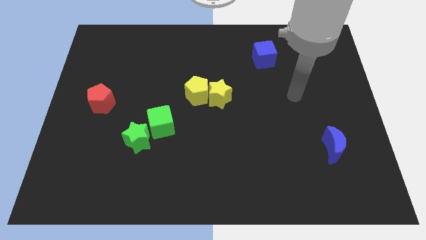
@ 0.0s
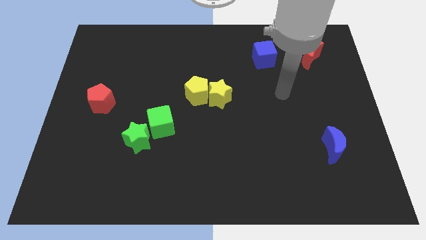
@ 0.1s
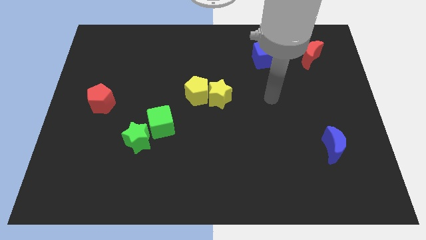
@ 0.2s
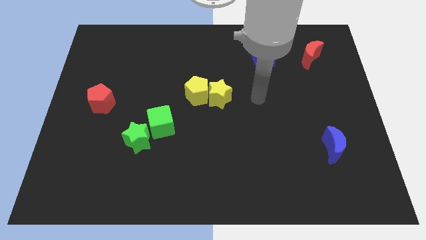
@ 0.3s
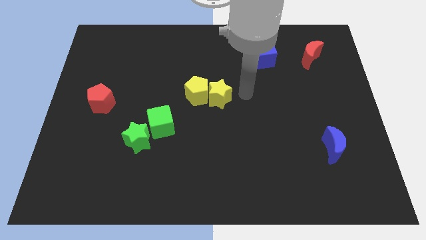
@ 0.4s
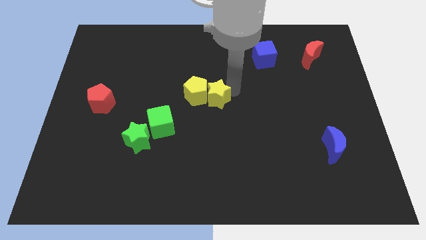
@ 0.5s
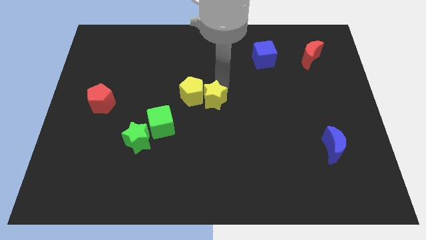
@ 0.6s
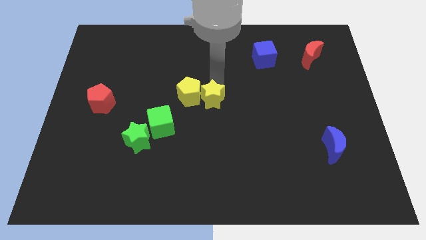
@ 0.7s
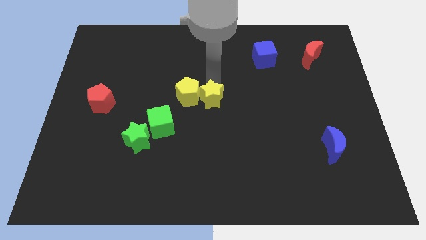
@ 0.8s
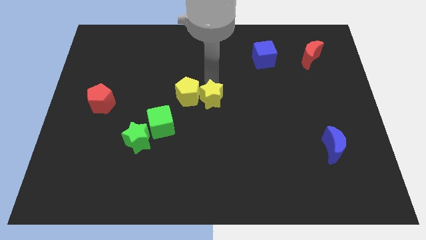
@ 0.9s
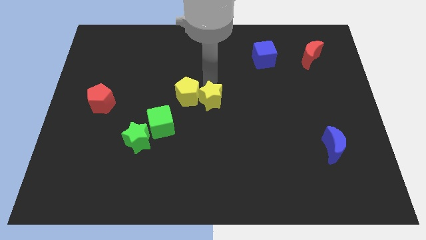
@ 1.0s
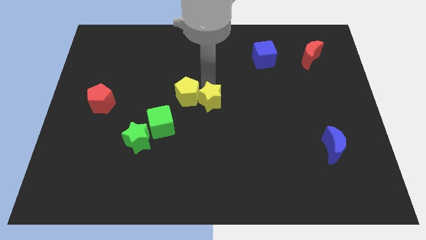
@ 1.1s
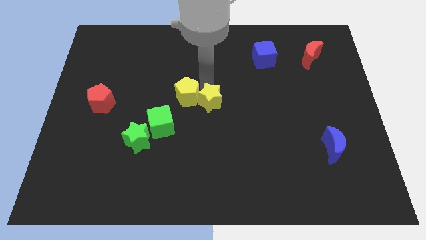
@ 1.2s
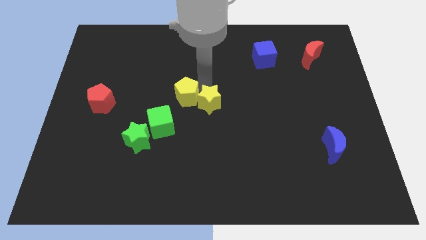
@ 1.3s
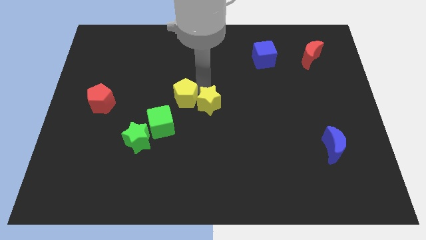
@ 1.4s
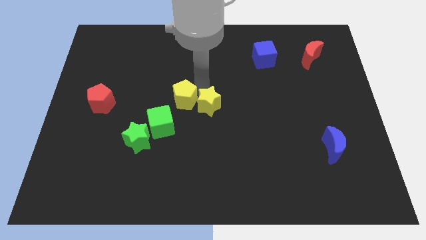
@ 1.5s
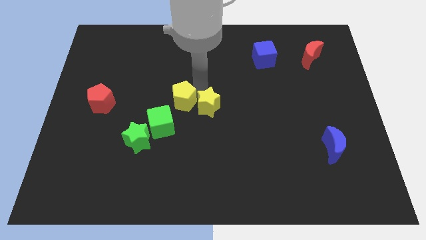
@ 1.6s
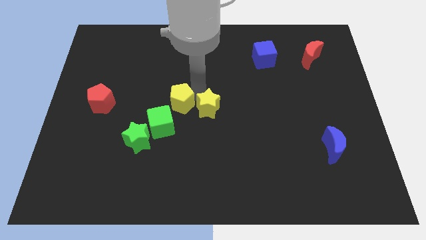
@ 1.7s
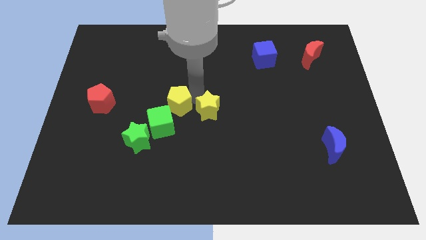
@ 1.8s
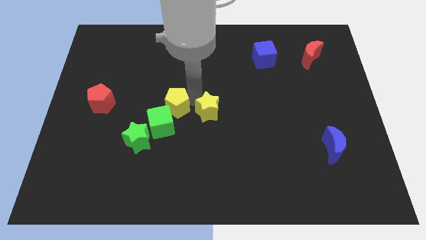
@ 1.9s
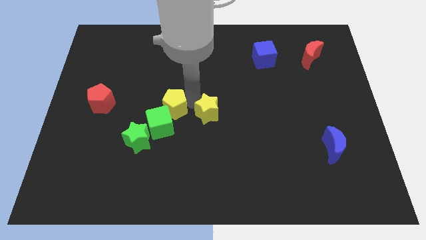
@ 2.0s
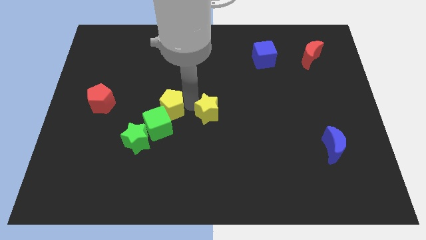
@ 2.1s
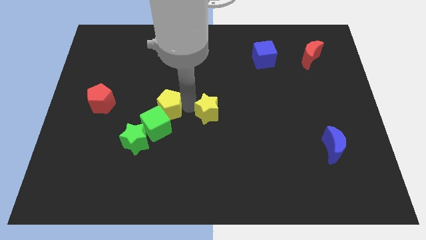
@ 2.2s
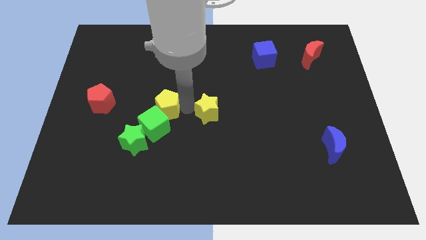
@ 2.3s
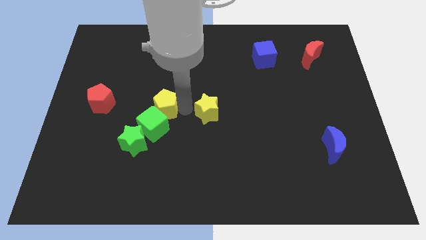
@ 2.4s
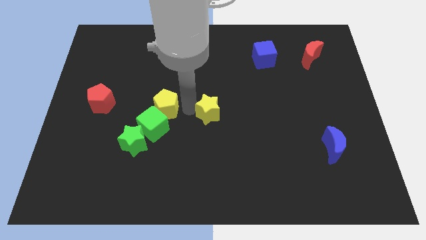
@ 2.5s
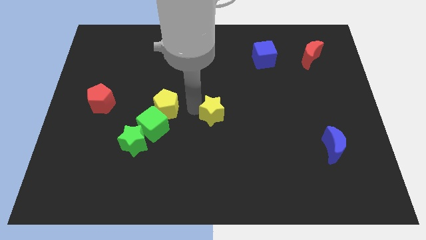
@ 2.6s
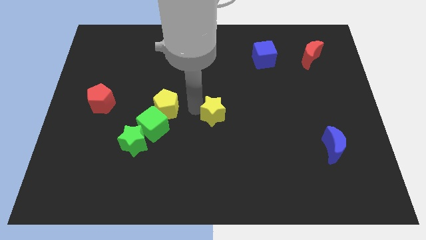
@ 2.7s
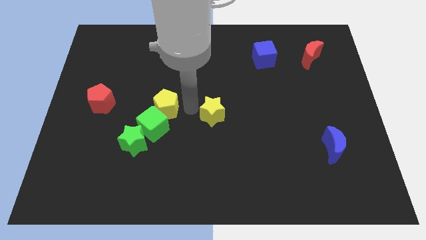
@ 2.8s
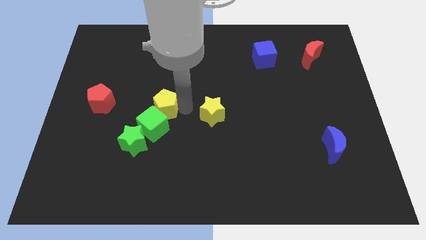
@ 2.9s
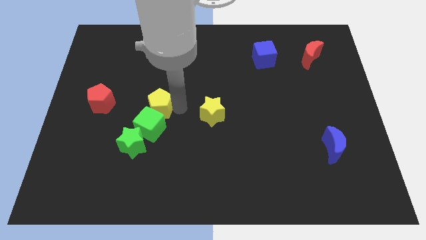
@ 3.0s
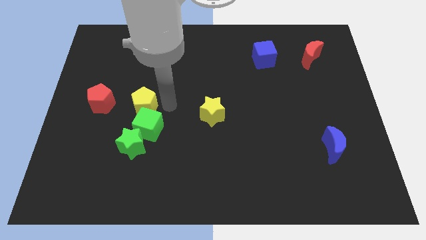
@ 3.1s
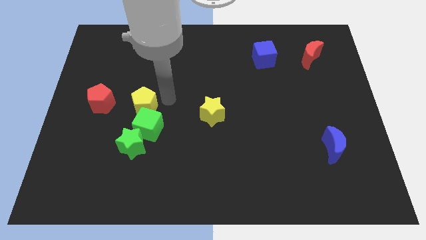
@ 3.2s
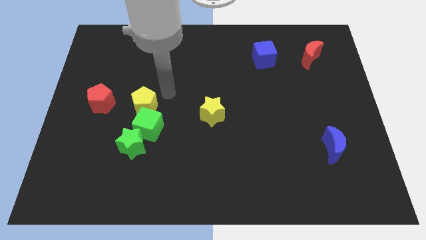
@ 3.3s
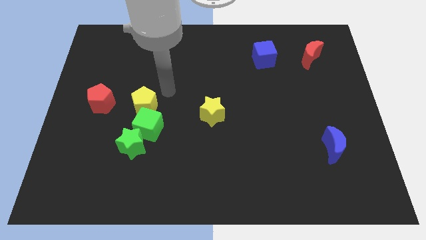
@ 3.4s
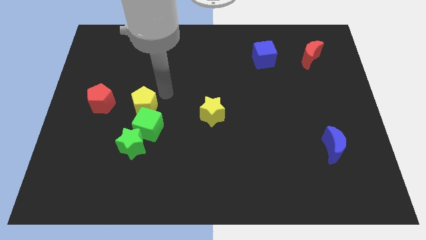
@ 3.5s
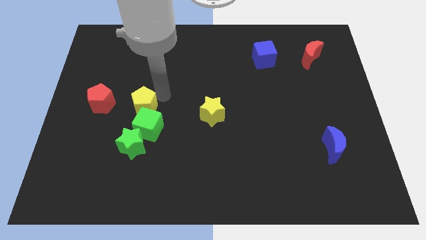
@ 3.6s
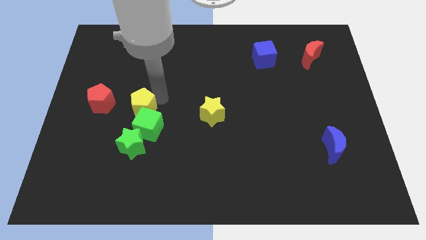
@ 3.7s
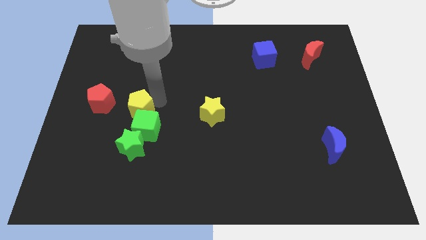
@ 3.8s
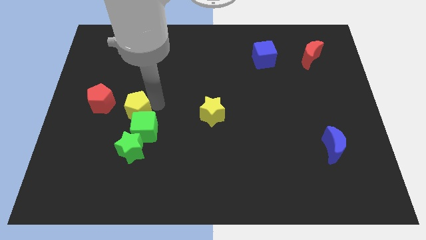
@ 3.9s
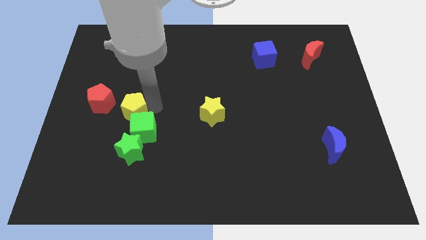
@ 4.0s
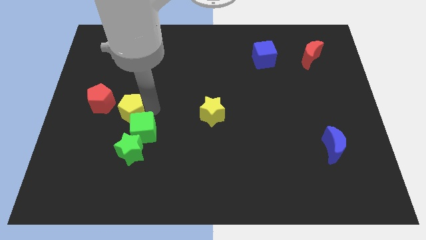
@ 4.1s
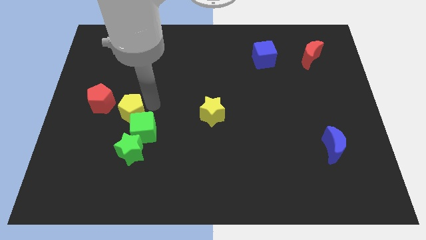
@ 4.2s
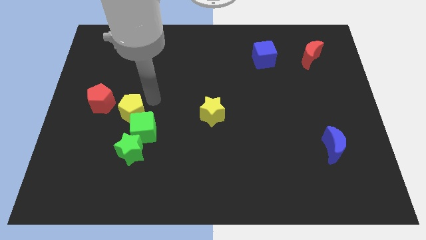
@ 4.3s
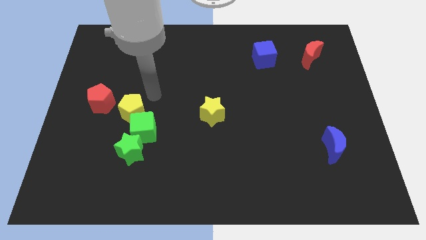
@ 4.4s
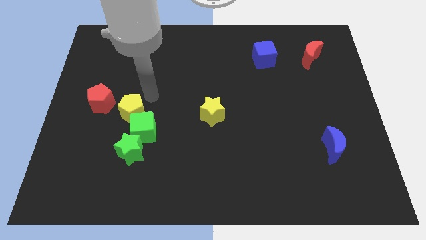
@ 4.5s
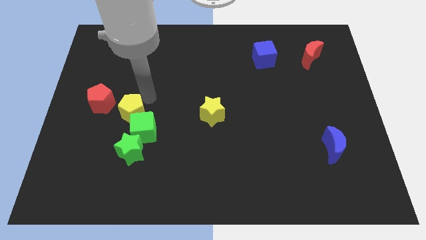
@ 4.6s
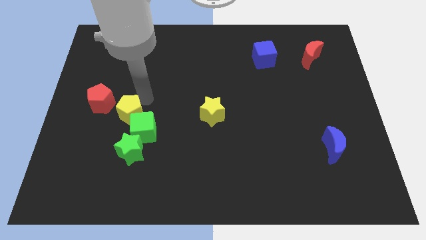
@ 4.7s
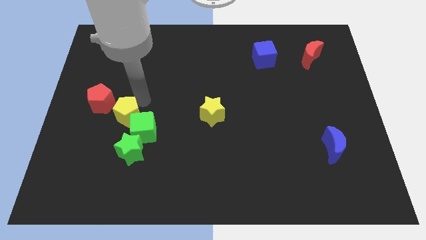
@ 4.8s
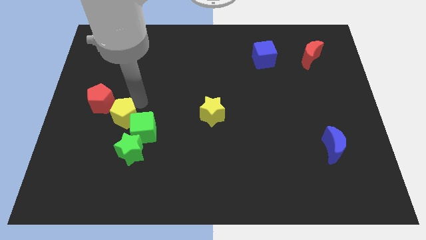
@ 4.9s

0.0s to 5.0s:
push the yellow pentagon diagonally up and to the left of the green star

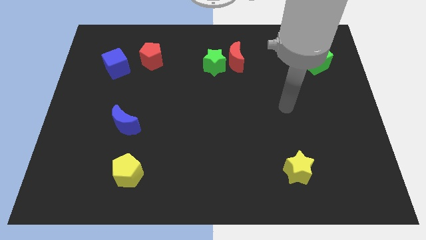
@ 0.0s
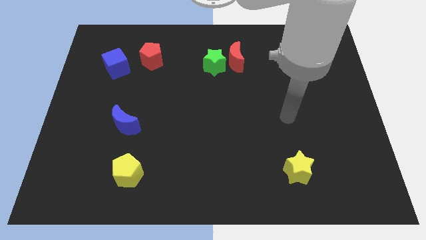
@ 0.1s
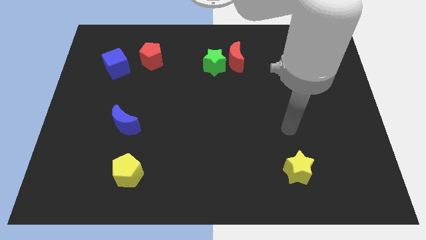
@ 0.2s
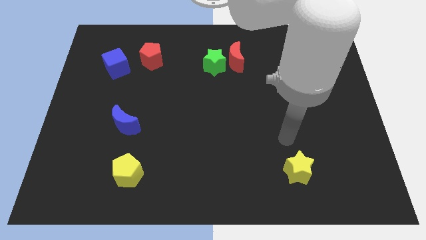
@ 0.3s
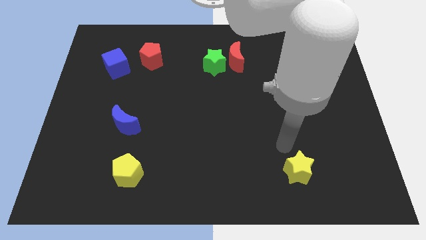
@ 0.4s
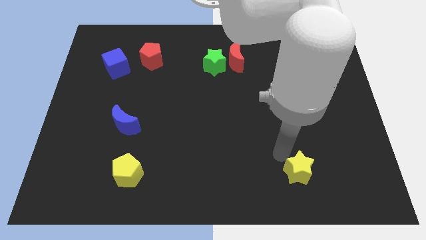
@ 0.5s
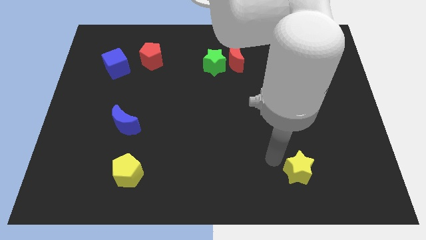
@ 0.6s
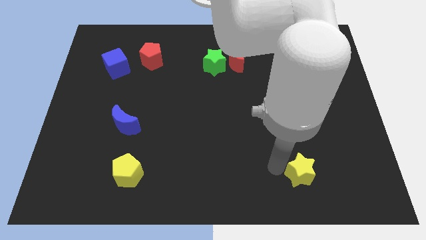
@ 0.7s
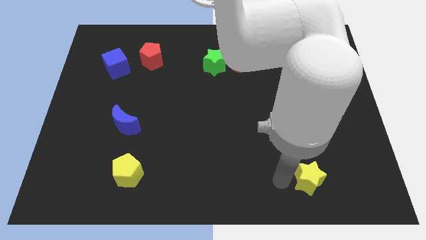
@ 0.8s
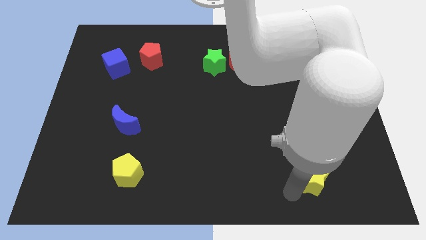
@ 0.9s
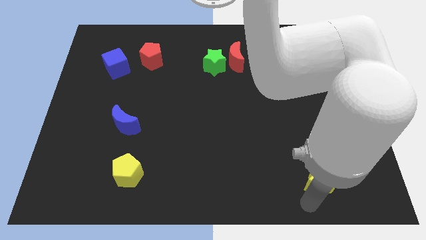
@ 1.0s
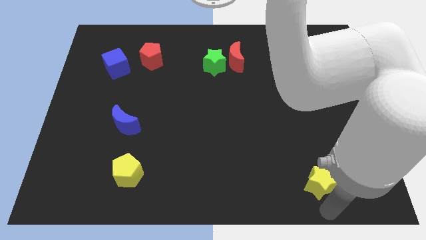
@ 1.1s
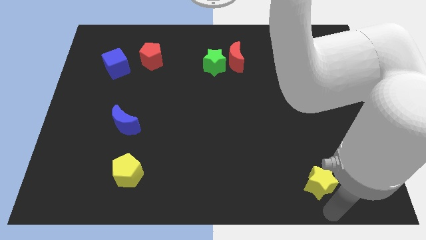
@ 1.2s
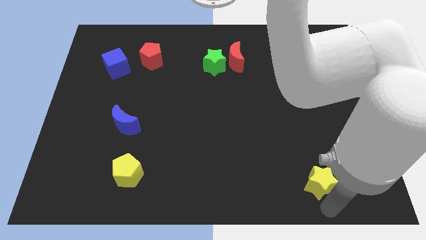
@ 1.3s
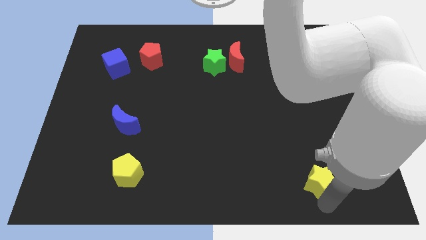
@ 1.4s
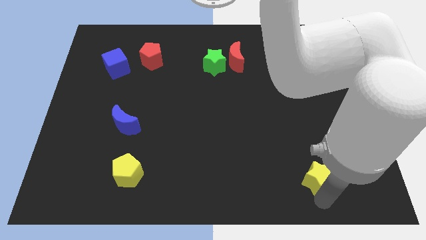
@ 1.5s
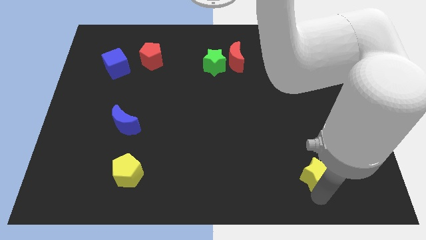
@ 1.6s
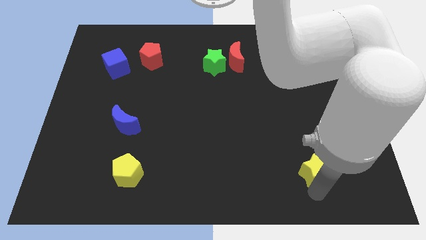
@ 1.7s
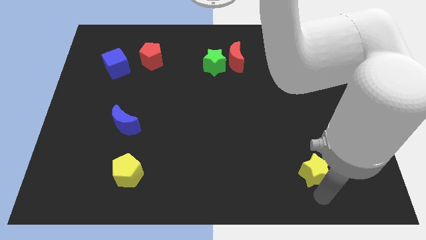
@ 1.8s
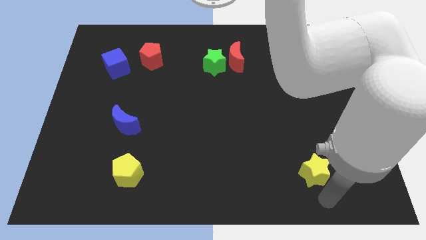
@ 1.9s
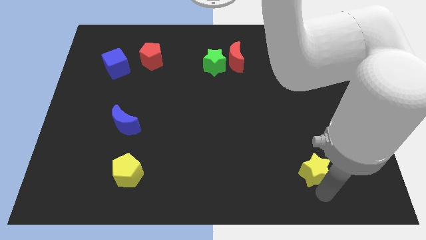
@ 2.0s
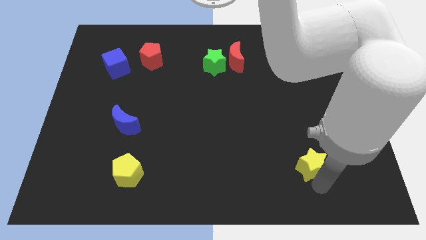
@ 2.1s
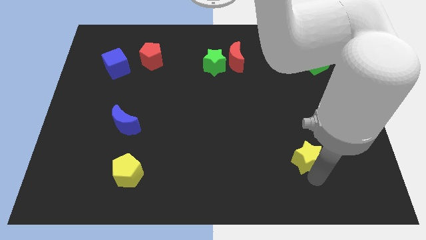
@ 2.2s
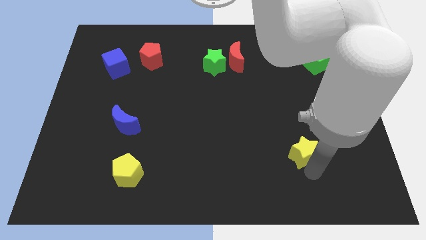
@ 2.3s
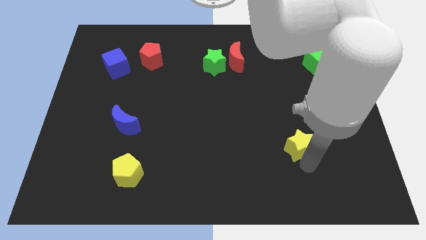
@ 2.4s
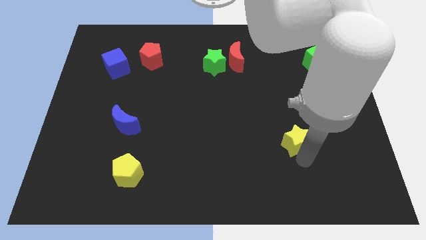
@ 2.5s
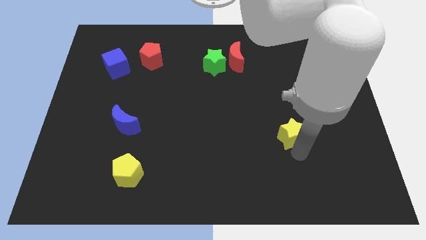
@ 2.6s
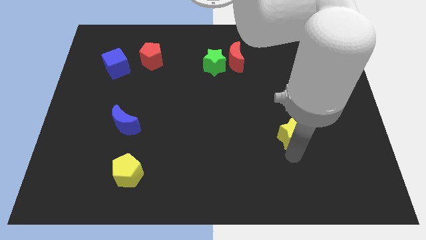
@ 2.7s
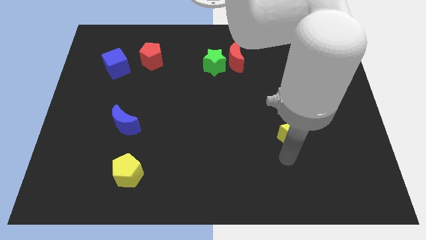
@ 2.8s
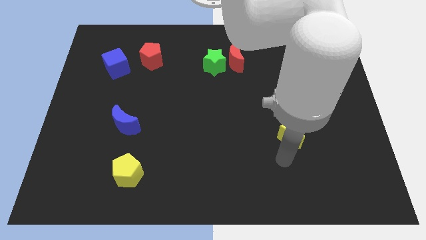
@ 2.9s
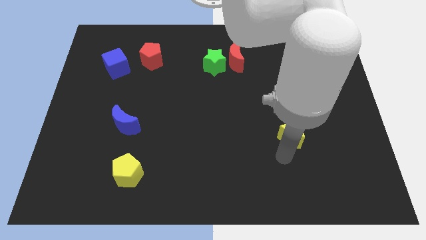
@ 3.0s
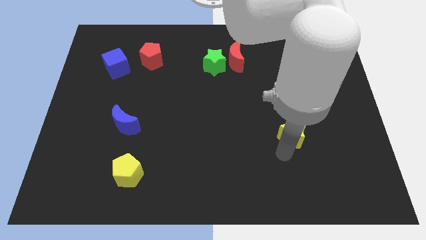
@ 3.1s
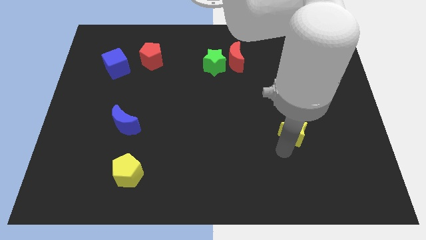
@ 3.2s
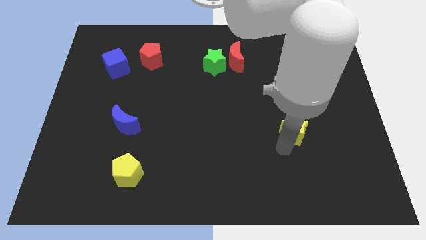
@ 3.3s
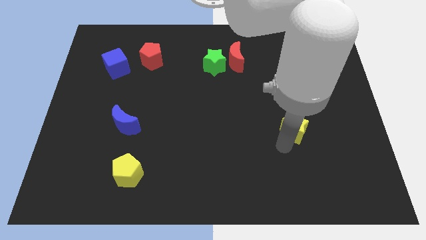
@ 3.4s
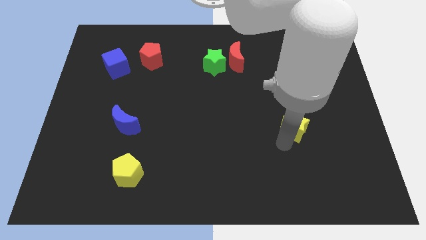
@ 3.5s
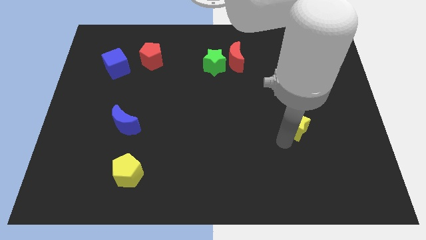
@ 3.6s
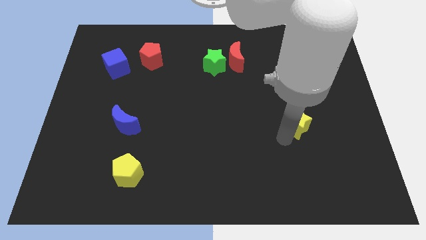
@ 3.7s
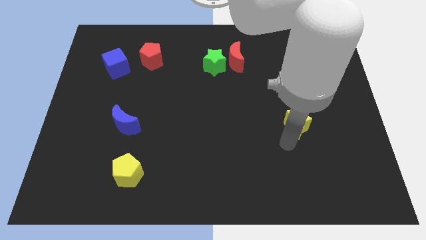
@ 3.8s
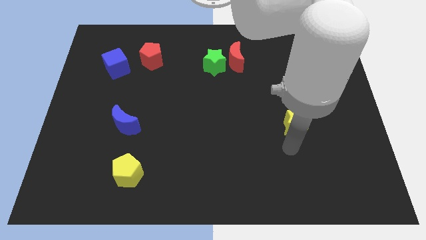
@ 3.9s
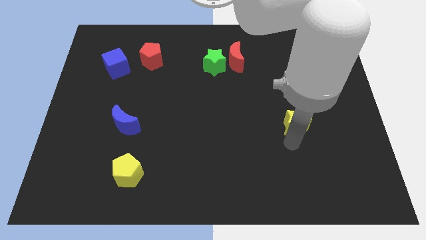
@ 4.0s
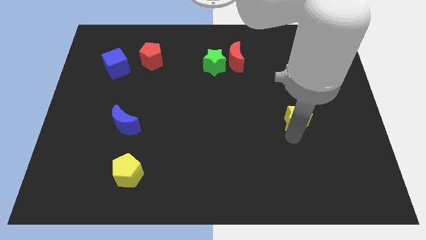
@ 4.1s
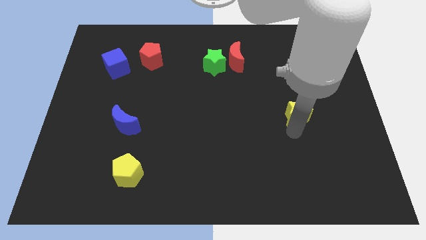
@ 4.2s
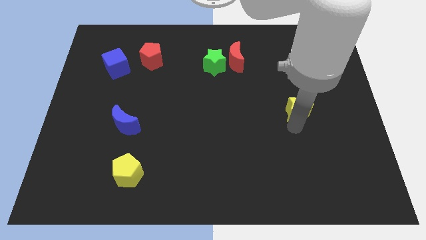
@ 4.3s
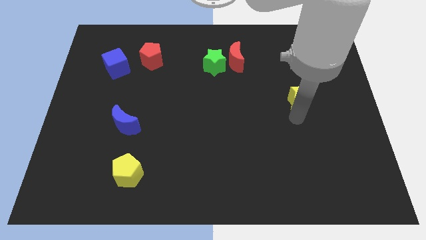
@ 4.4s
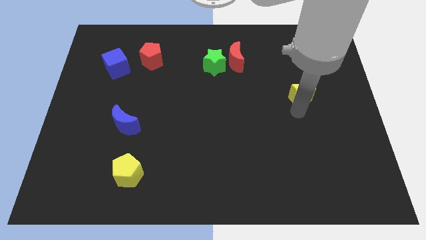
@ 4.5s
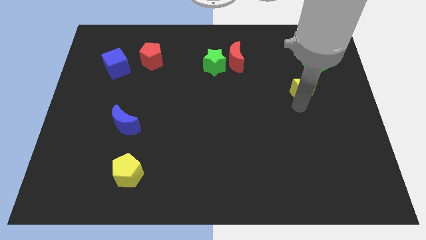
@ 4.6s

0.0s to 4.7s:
put the yellow star diagonally down and to the left of the green cube
